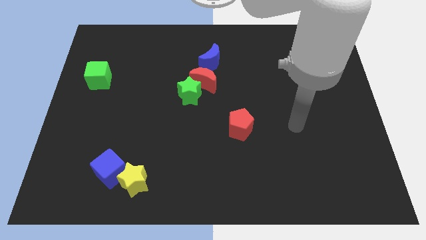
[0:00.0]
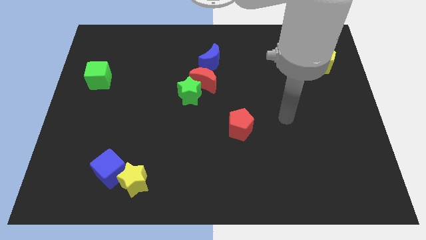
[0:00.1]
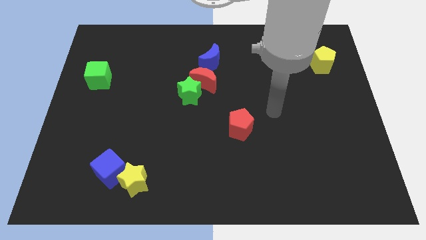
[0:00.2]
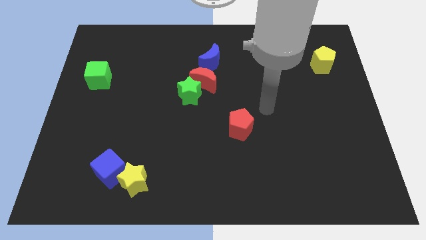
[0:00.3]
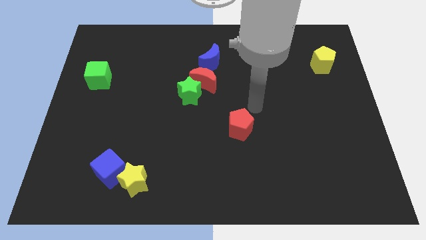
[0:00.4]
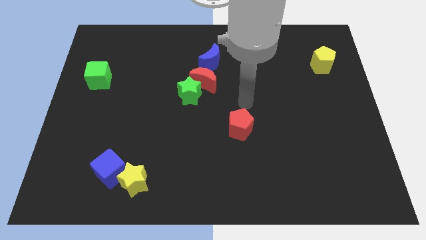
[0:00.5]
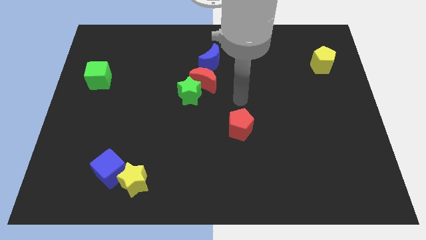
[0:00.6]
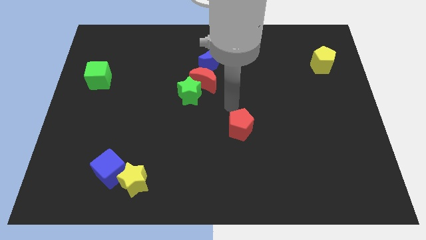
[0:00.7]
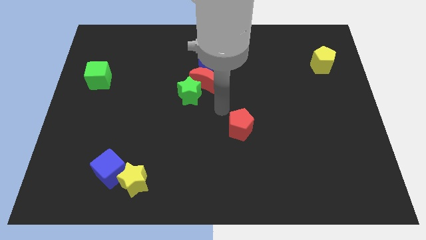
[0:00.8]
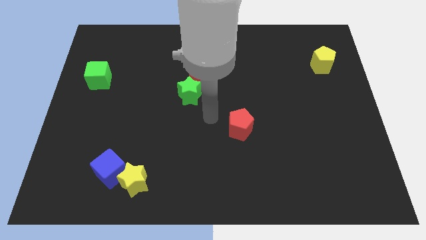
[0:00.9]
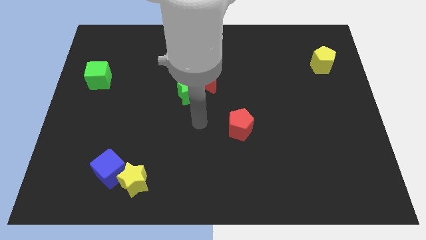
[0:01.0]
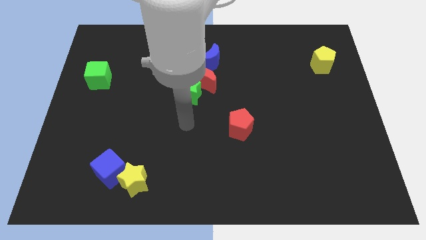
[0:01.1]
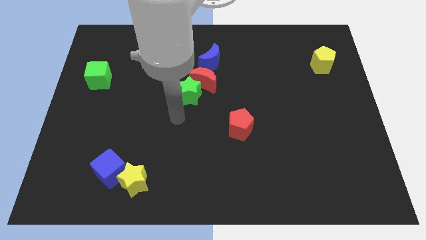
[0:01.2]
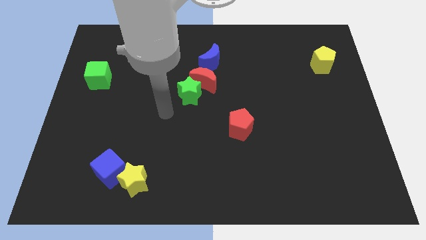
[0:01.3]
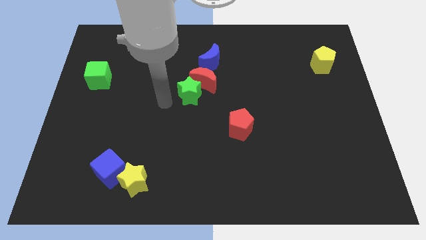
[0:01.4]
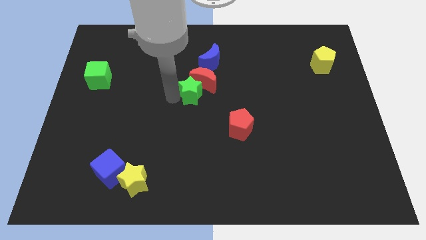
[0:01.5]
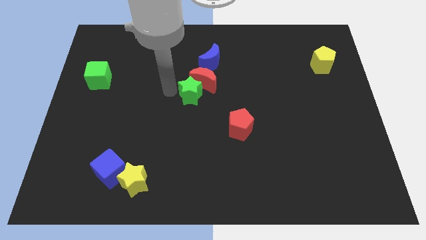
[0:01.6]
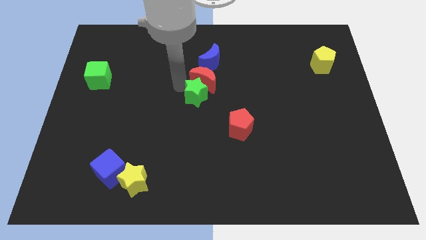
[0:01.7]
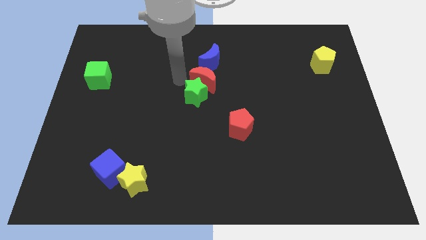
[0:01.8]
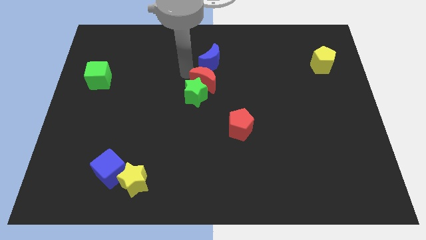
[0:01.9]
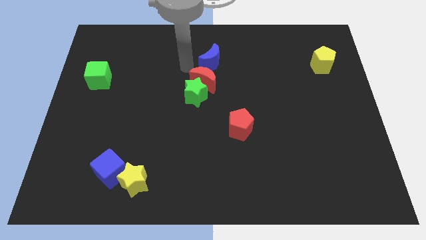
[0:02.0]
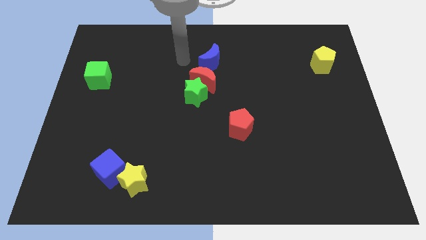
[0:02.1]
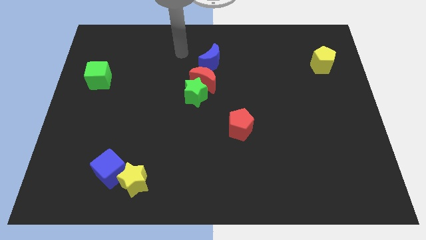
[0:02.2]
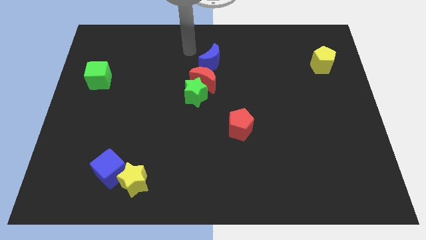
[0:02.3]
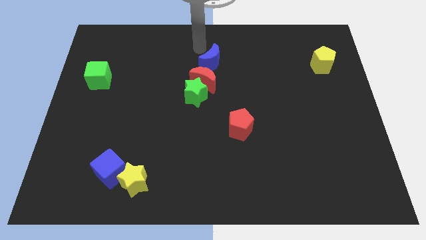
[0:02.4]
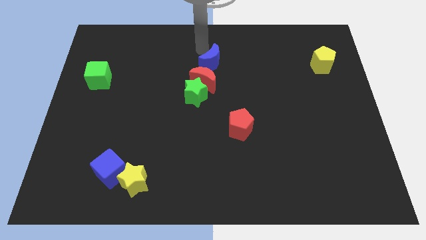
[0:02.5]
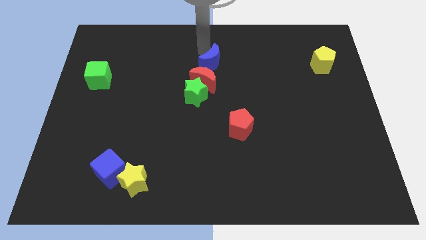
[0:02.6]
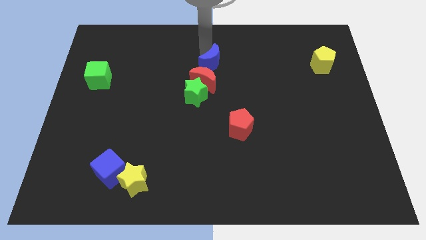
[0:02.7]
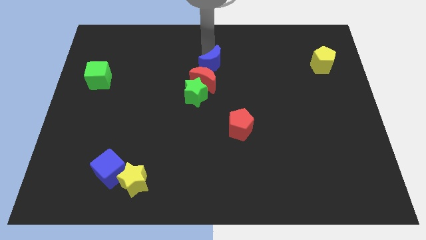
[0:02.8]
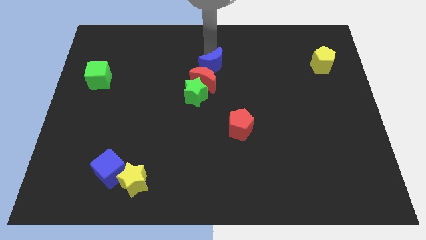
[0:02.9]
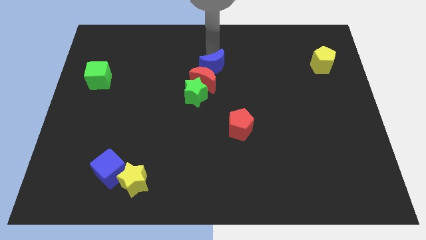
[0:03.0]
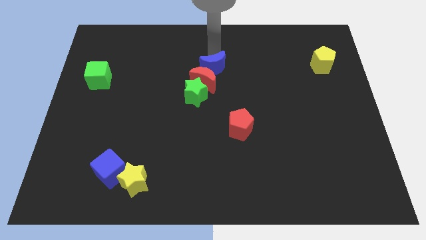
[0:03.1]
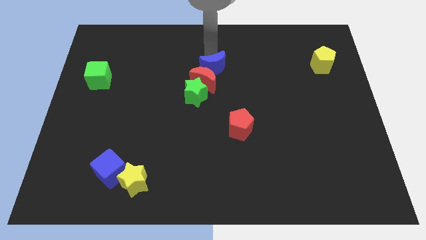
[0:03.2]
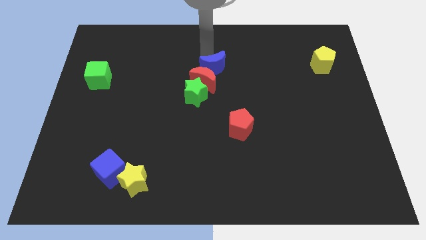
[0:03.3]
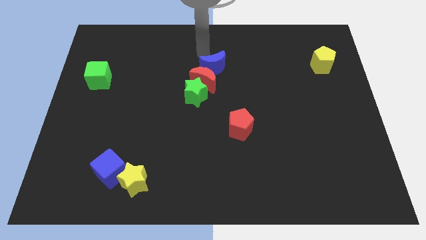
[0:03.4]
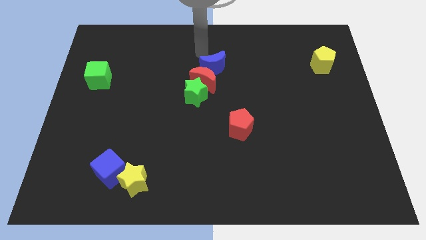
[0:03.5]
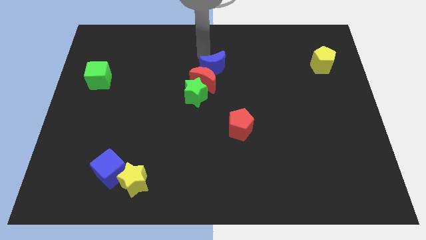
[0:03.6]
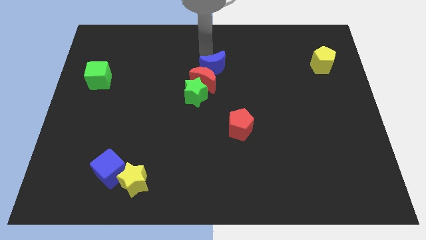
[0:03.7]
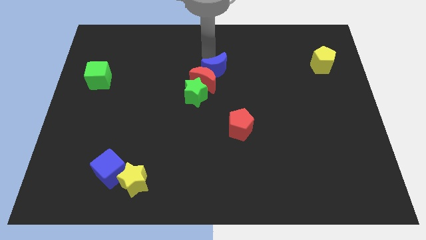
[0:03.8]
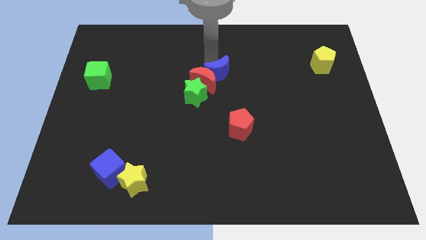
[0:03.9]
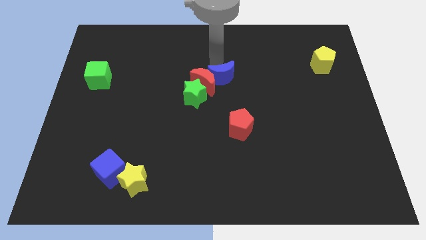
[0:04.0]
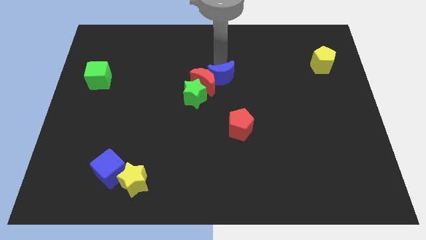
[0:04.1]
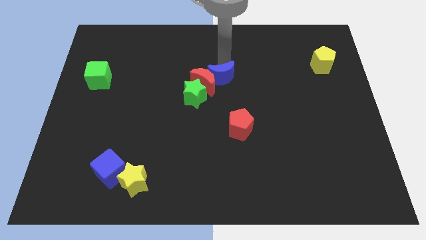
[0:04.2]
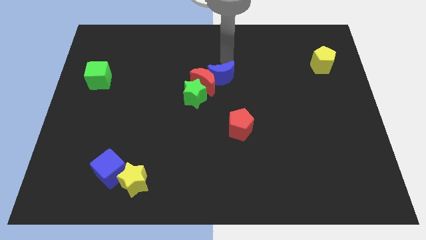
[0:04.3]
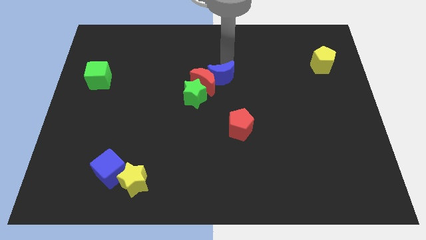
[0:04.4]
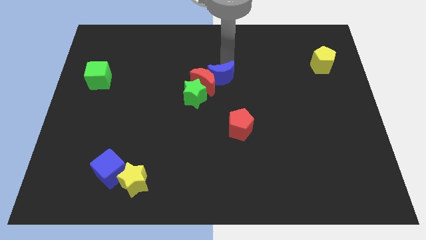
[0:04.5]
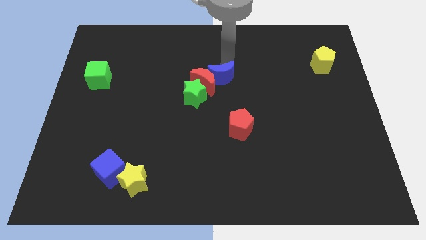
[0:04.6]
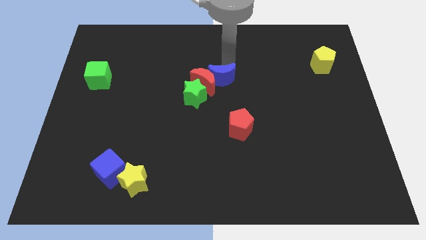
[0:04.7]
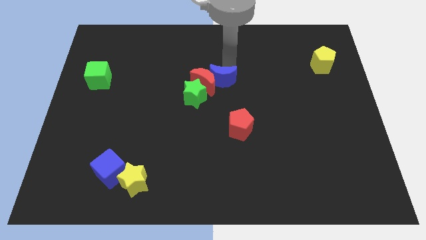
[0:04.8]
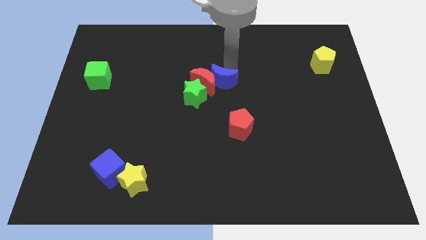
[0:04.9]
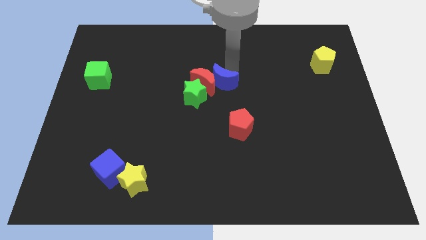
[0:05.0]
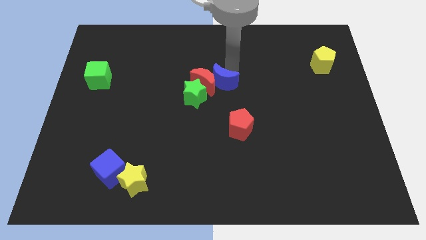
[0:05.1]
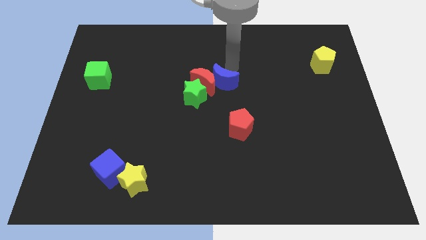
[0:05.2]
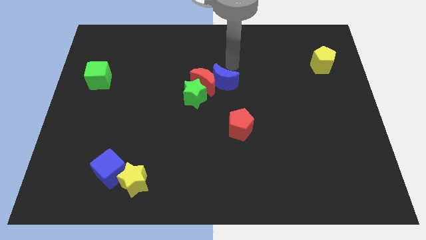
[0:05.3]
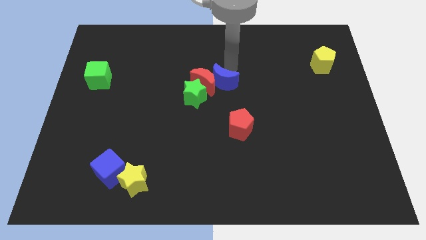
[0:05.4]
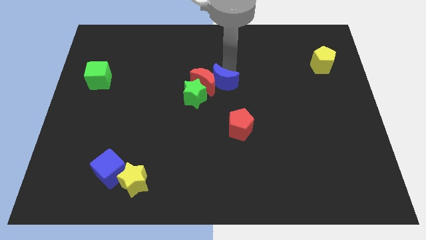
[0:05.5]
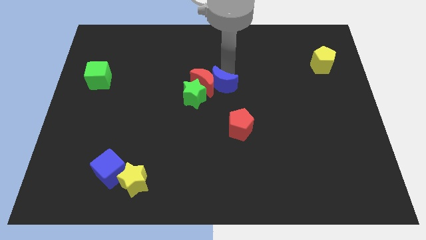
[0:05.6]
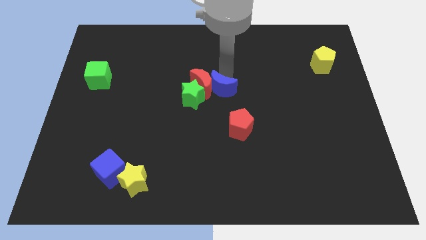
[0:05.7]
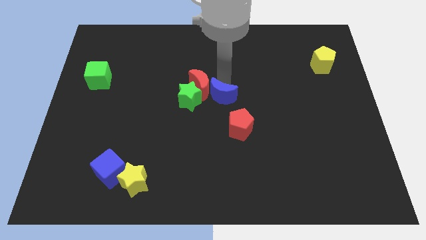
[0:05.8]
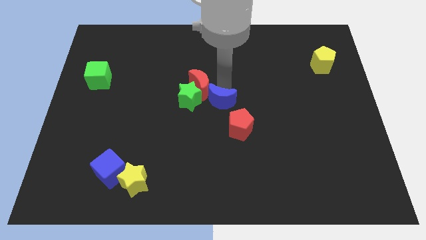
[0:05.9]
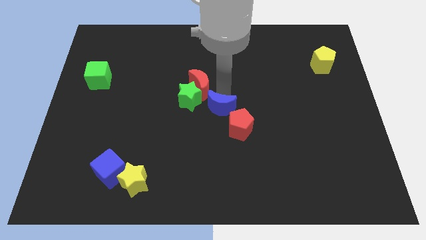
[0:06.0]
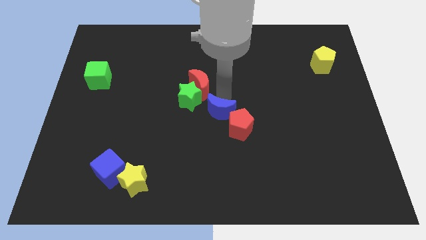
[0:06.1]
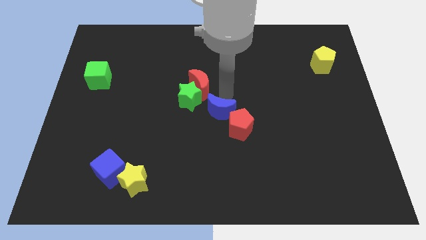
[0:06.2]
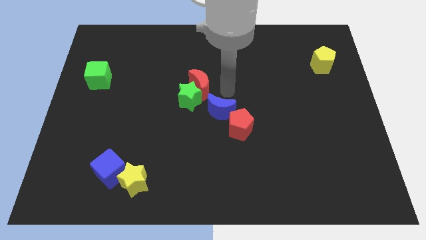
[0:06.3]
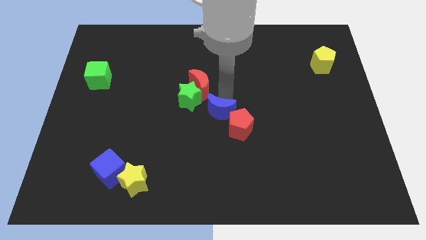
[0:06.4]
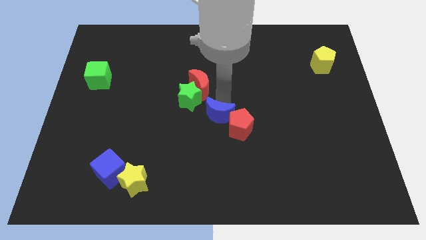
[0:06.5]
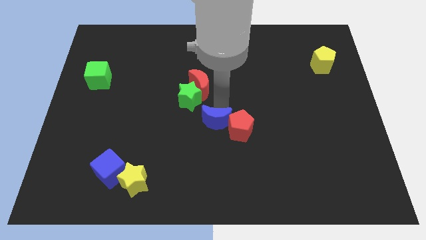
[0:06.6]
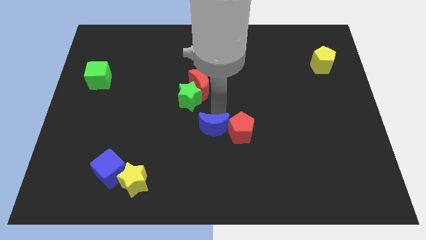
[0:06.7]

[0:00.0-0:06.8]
push the blue moon down

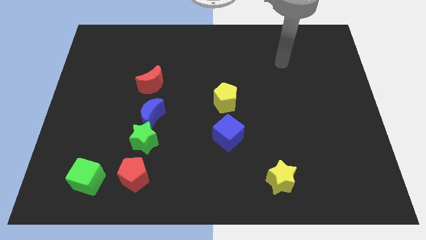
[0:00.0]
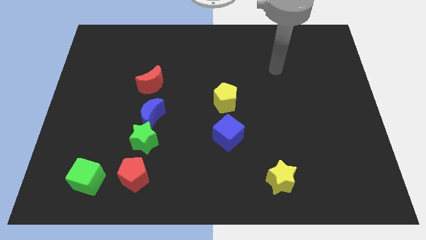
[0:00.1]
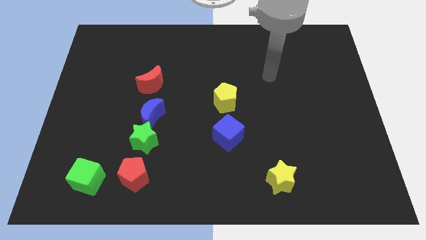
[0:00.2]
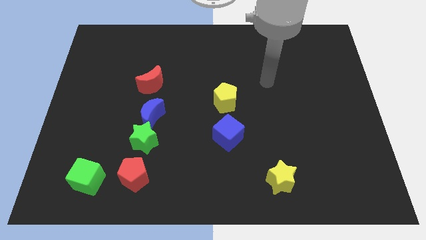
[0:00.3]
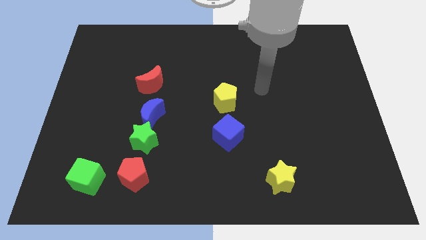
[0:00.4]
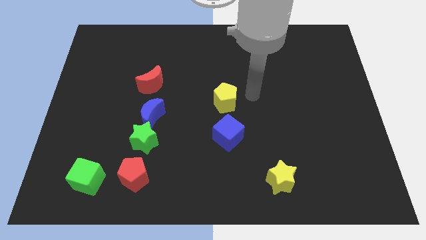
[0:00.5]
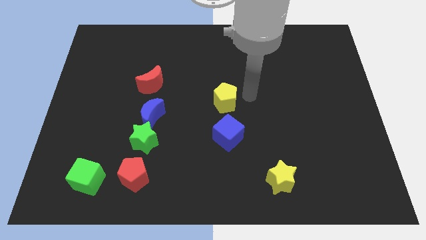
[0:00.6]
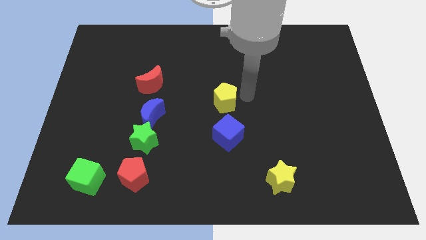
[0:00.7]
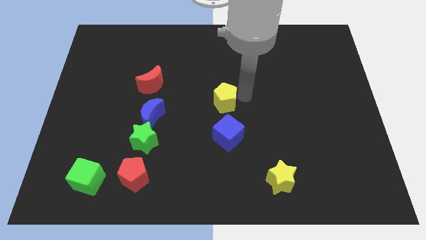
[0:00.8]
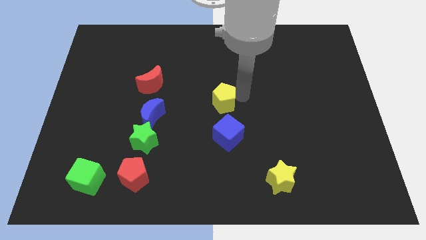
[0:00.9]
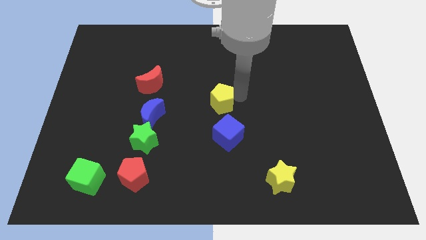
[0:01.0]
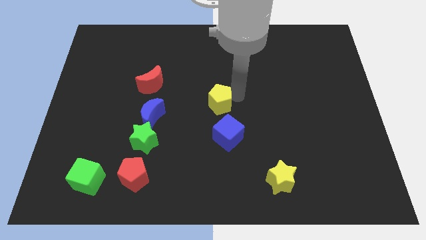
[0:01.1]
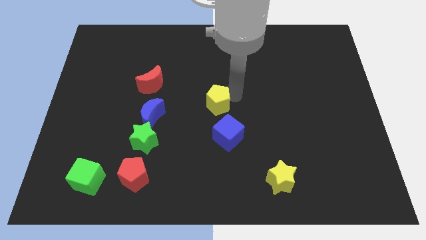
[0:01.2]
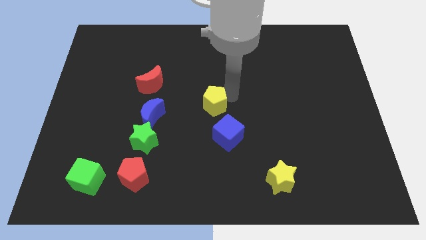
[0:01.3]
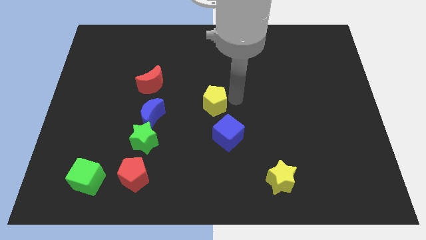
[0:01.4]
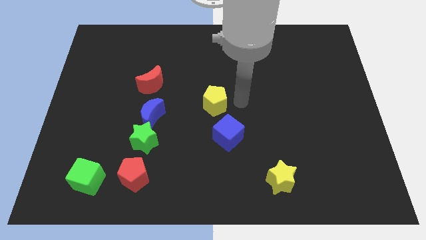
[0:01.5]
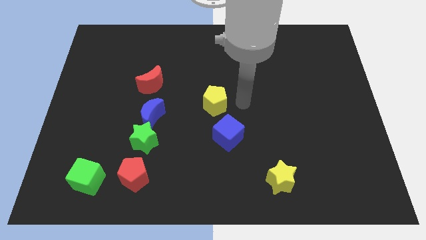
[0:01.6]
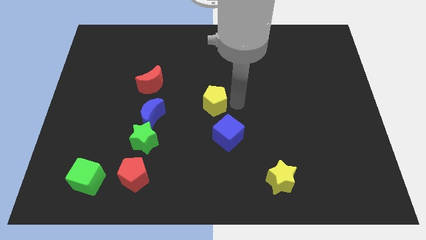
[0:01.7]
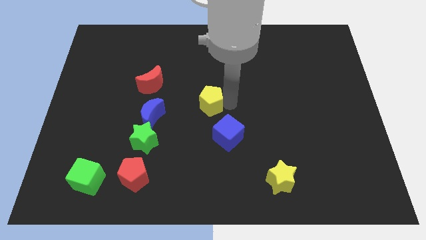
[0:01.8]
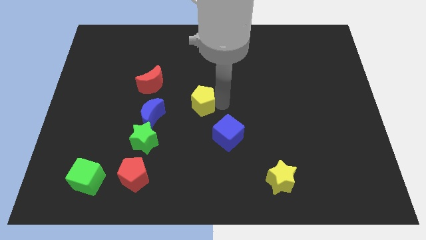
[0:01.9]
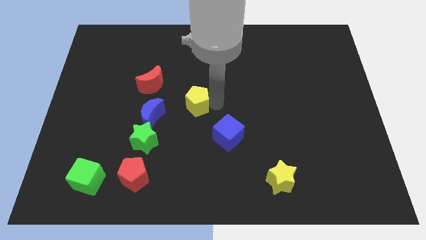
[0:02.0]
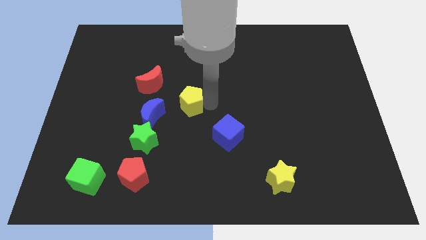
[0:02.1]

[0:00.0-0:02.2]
move the yellow pentagon a little left
